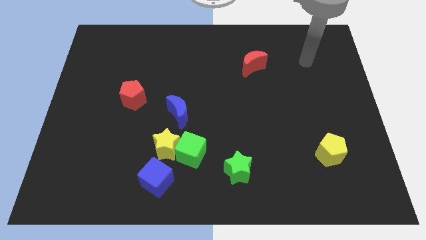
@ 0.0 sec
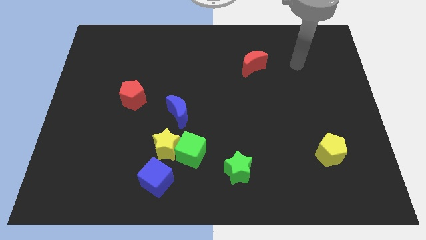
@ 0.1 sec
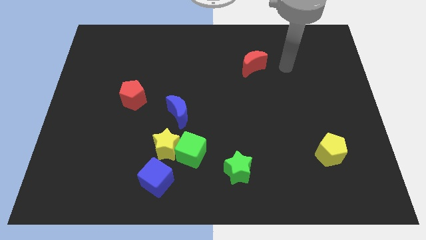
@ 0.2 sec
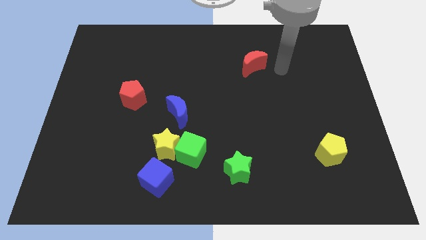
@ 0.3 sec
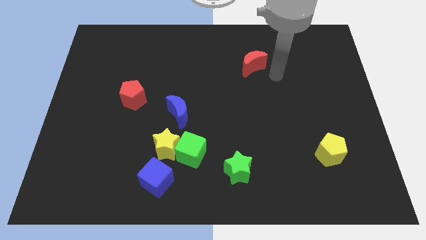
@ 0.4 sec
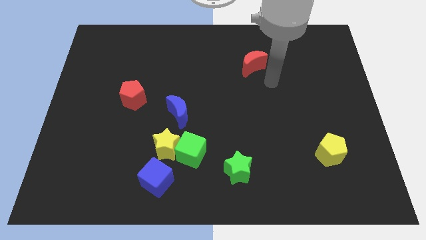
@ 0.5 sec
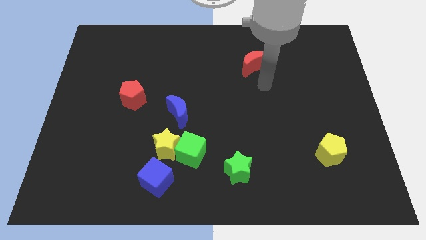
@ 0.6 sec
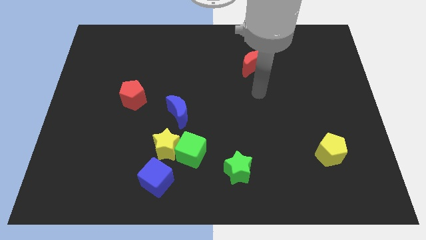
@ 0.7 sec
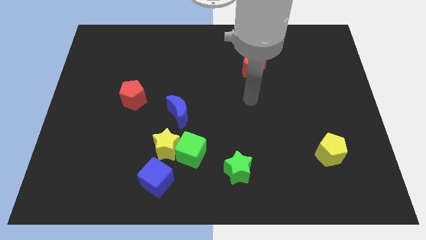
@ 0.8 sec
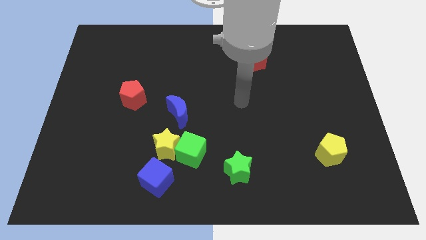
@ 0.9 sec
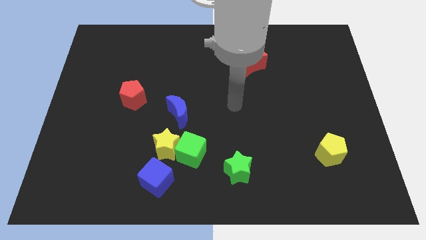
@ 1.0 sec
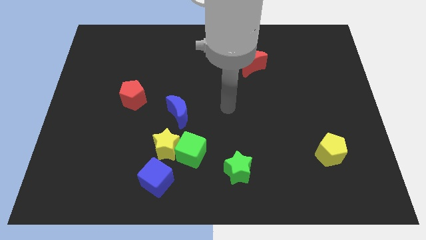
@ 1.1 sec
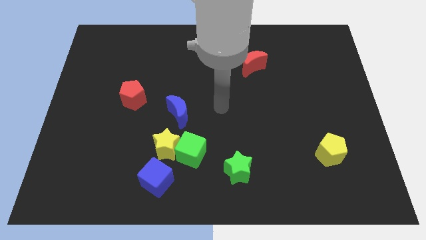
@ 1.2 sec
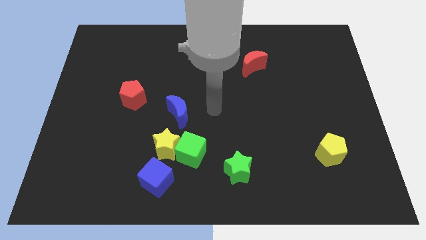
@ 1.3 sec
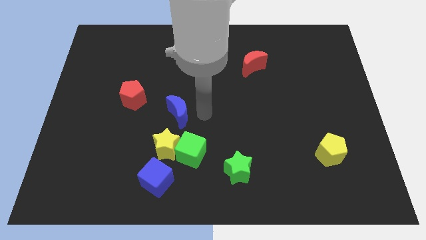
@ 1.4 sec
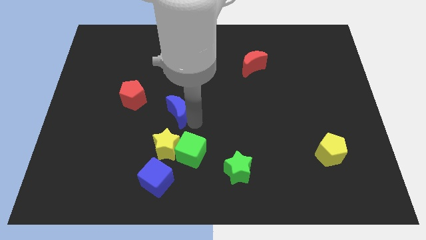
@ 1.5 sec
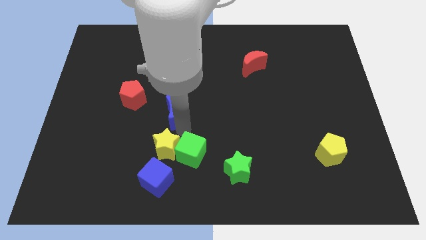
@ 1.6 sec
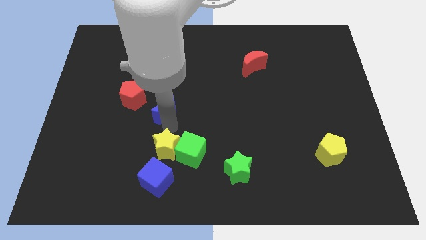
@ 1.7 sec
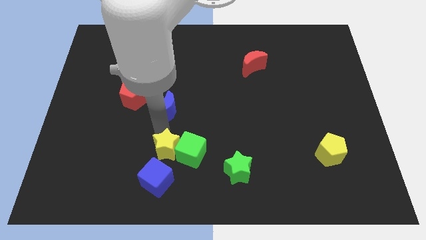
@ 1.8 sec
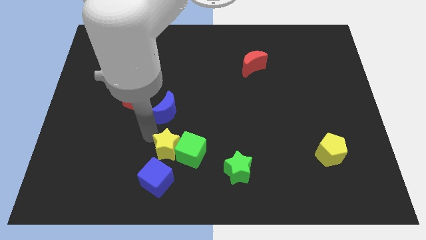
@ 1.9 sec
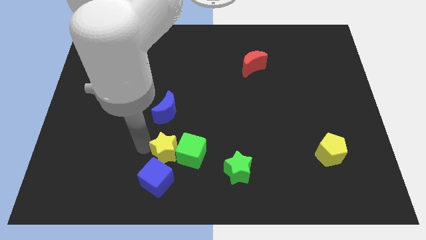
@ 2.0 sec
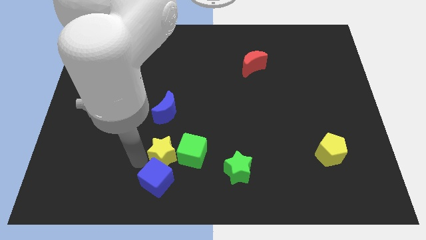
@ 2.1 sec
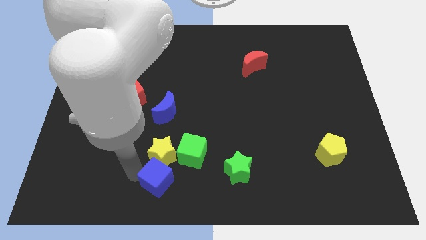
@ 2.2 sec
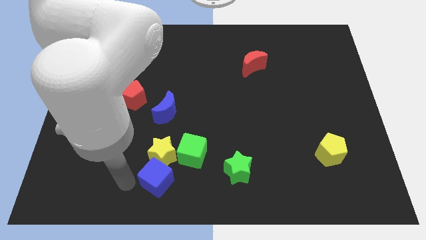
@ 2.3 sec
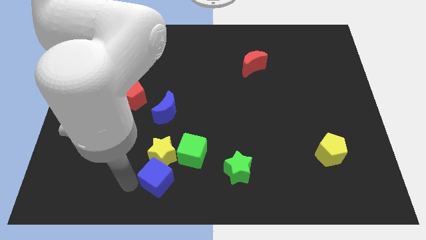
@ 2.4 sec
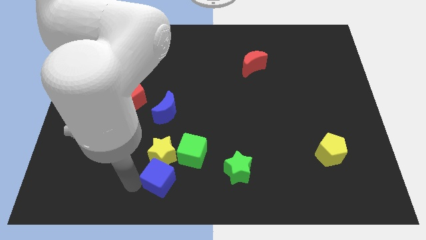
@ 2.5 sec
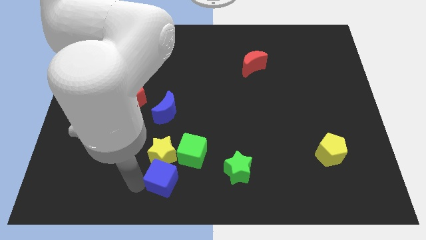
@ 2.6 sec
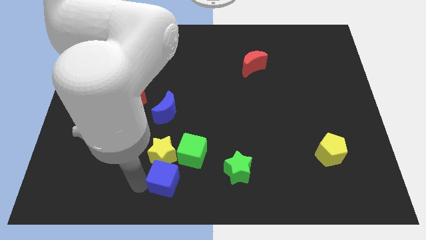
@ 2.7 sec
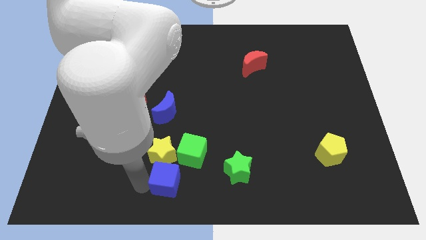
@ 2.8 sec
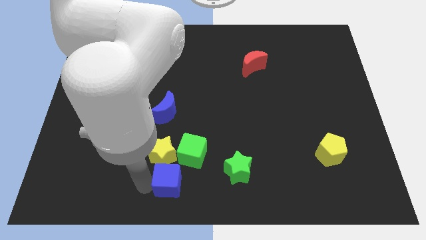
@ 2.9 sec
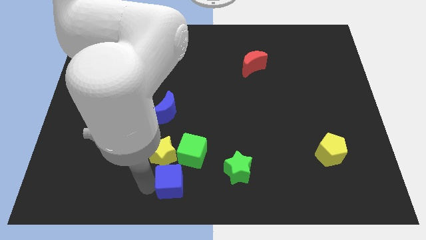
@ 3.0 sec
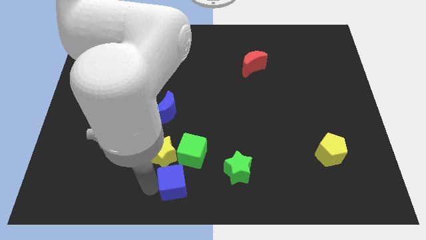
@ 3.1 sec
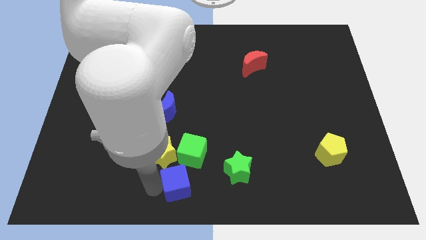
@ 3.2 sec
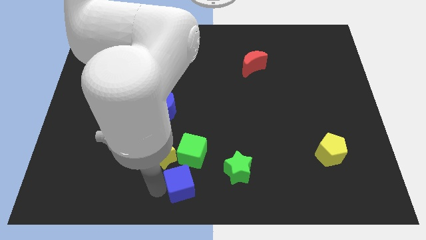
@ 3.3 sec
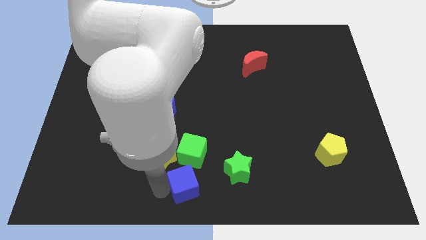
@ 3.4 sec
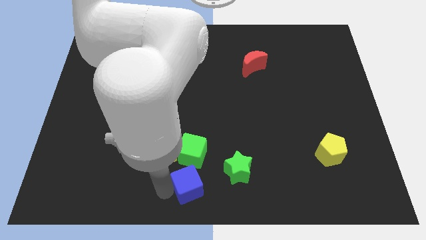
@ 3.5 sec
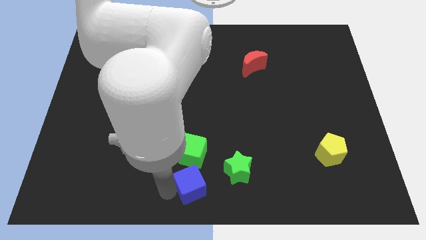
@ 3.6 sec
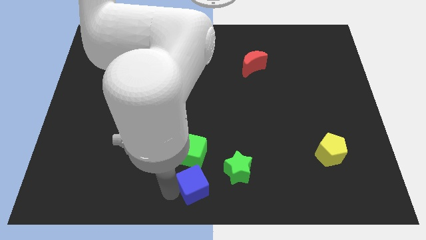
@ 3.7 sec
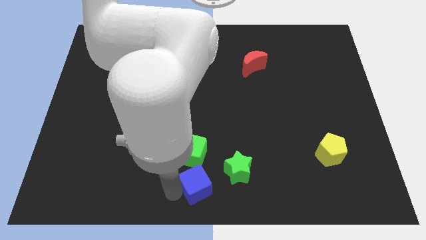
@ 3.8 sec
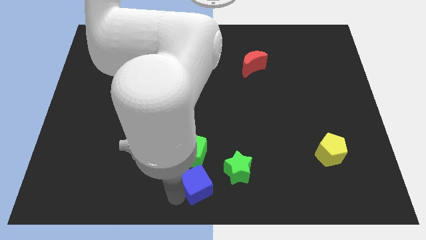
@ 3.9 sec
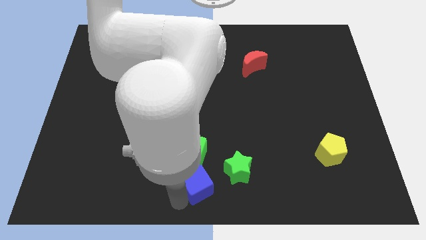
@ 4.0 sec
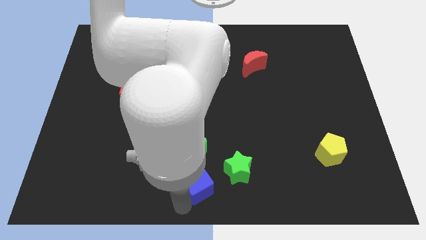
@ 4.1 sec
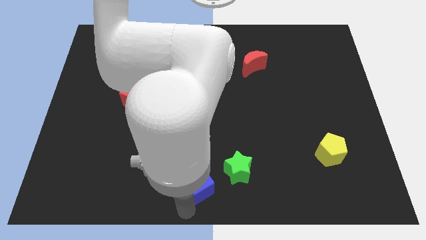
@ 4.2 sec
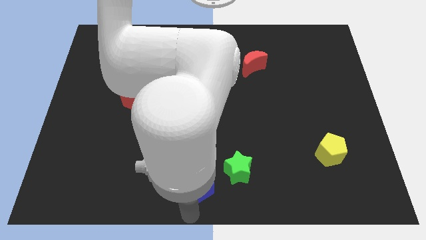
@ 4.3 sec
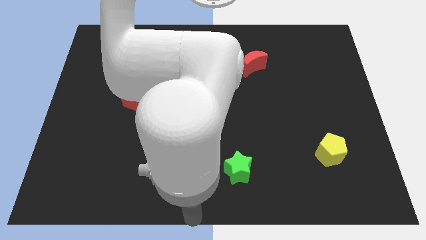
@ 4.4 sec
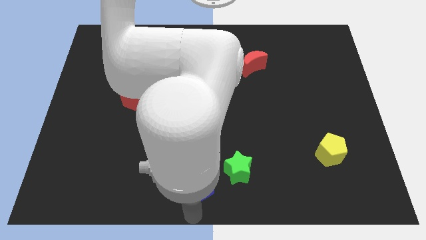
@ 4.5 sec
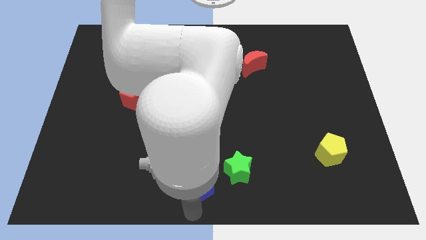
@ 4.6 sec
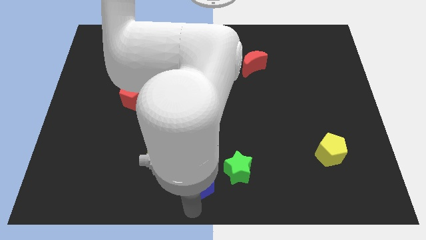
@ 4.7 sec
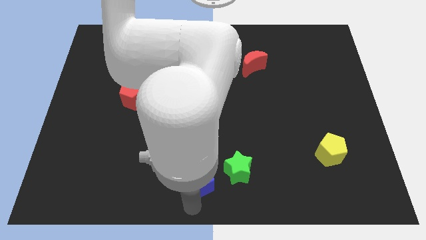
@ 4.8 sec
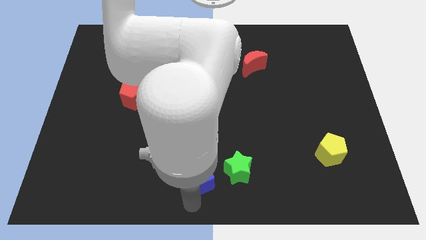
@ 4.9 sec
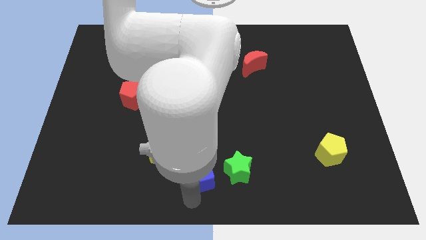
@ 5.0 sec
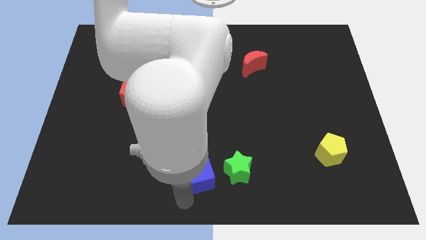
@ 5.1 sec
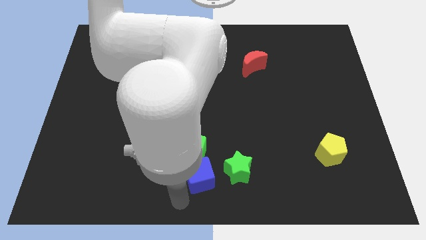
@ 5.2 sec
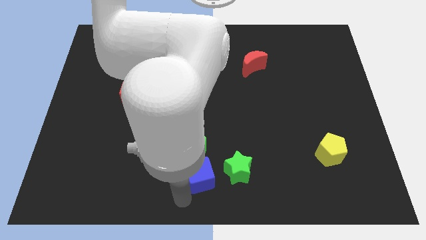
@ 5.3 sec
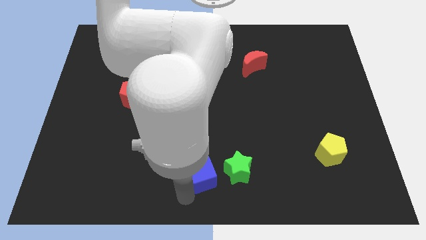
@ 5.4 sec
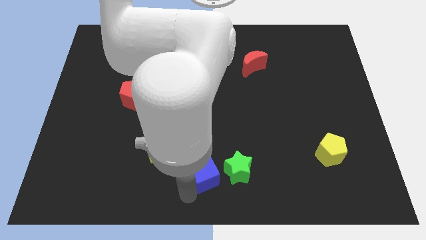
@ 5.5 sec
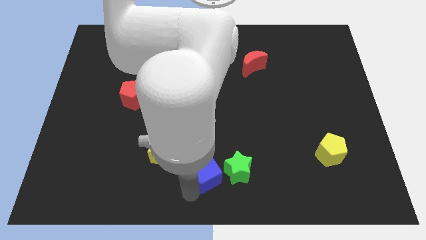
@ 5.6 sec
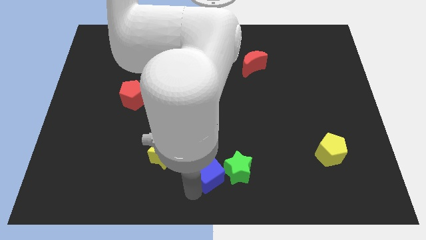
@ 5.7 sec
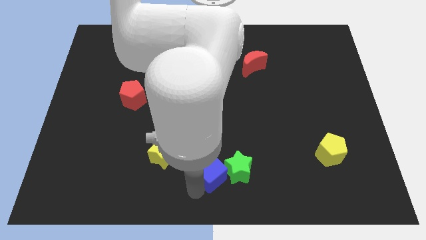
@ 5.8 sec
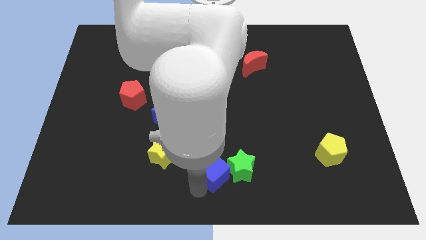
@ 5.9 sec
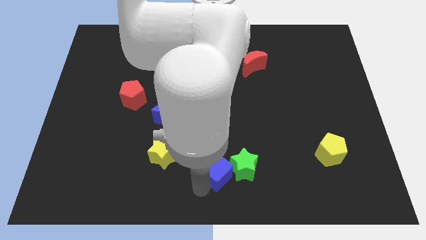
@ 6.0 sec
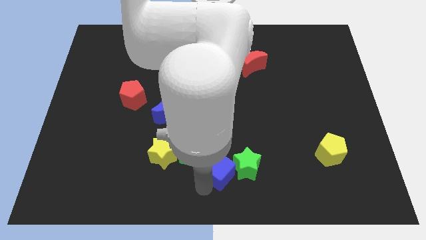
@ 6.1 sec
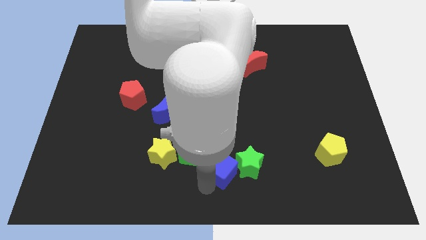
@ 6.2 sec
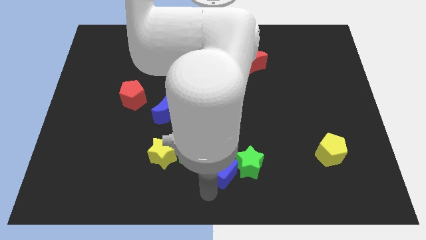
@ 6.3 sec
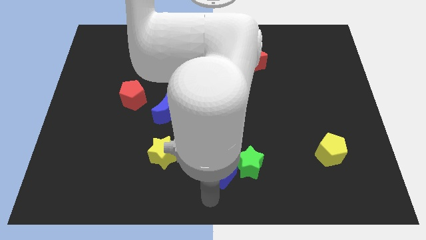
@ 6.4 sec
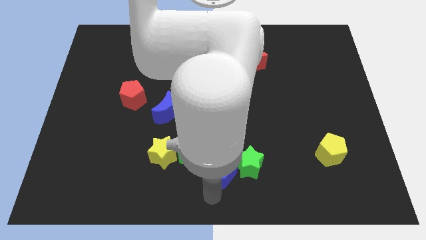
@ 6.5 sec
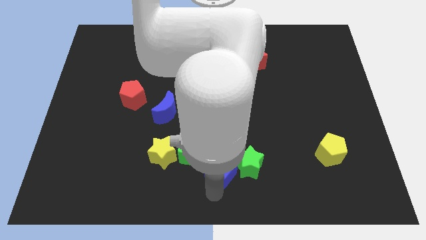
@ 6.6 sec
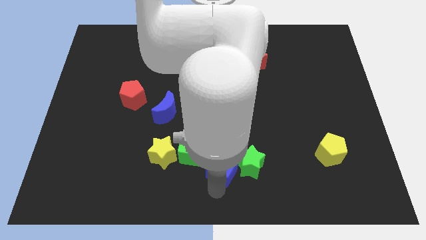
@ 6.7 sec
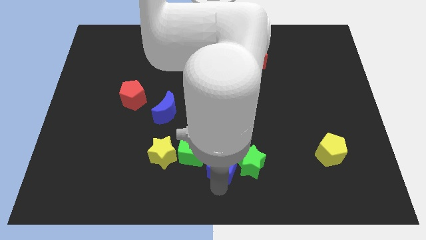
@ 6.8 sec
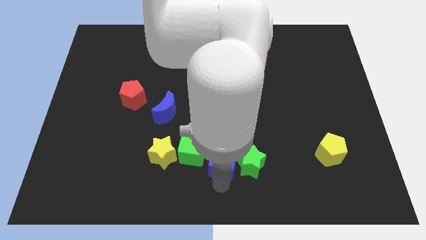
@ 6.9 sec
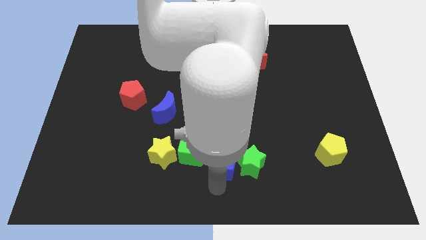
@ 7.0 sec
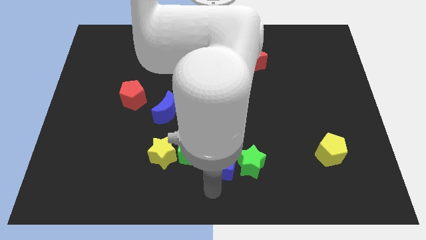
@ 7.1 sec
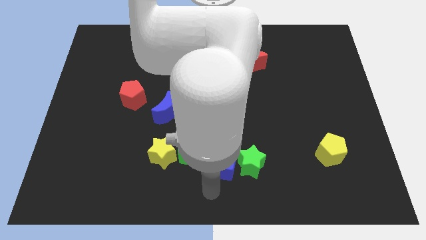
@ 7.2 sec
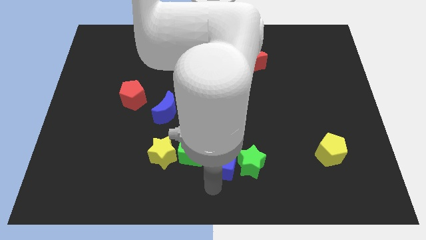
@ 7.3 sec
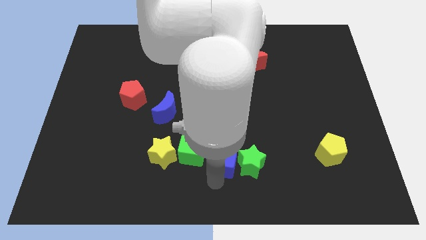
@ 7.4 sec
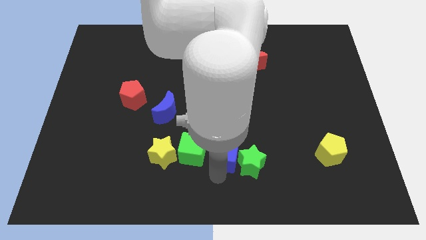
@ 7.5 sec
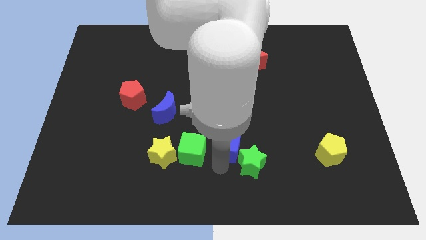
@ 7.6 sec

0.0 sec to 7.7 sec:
slide the blue cube to the top side of the green star
